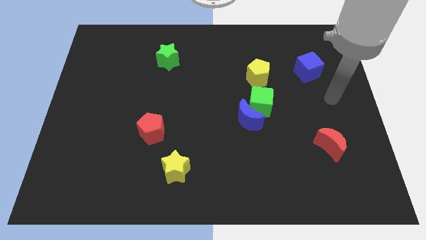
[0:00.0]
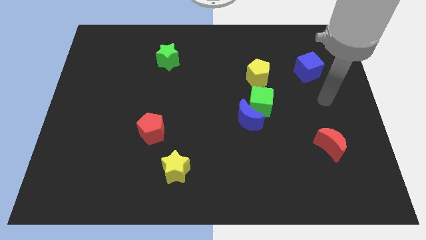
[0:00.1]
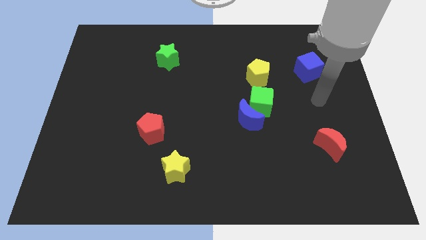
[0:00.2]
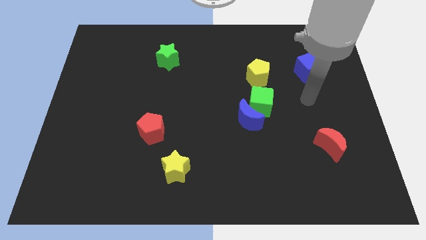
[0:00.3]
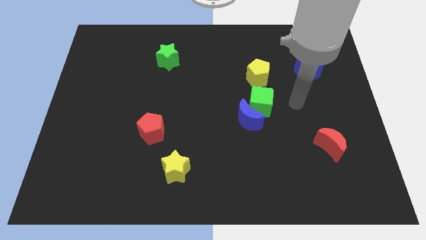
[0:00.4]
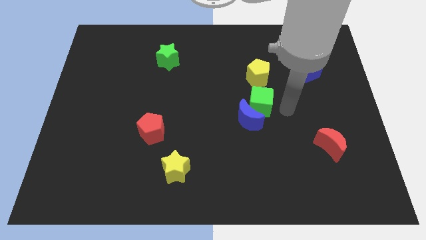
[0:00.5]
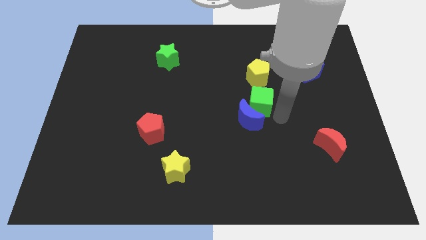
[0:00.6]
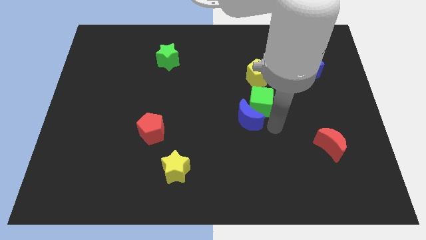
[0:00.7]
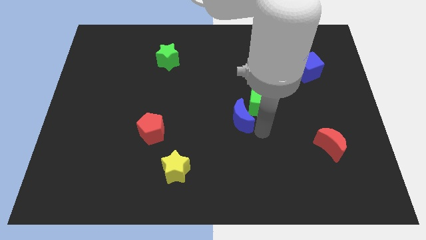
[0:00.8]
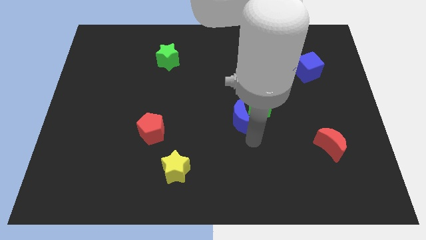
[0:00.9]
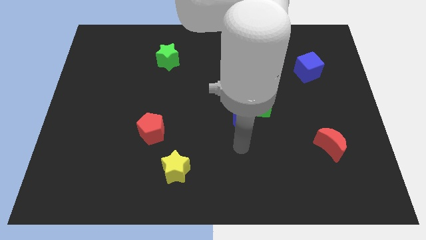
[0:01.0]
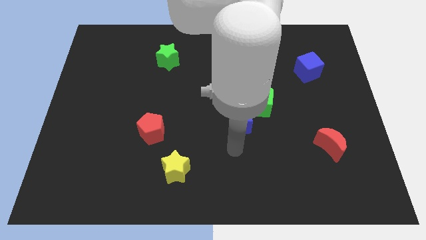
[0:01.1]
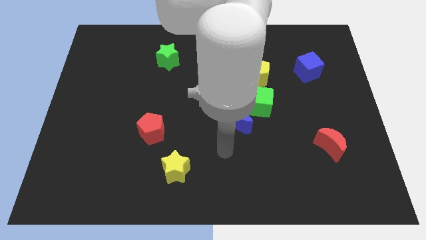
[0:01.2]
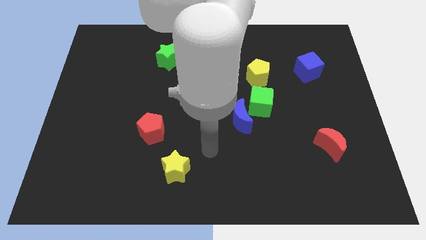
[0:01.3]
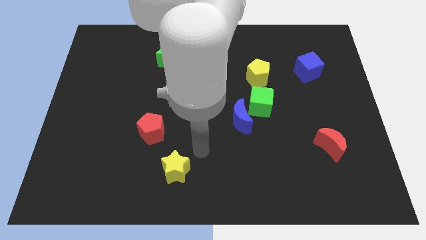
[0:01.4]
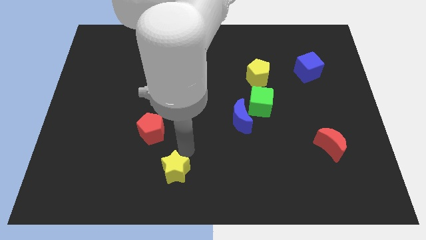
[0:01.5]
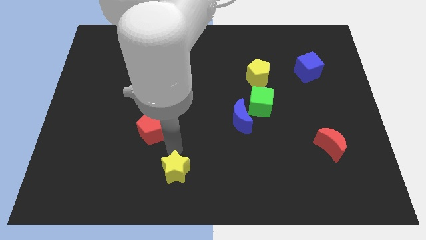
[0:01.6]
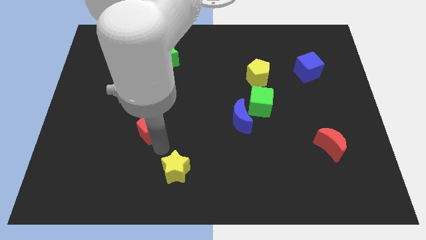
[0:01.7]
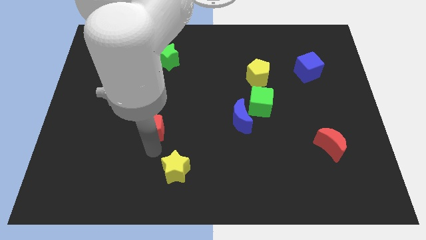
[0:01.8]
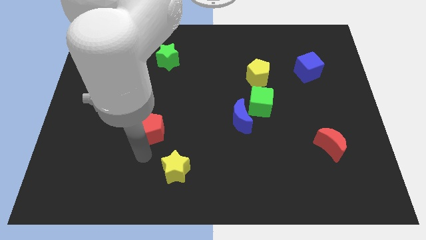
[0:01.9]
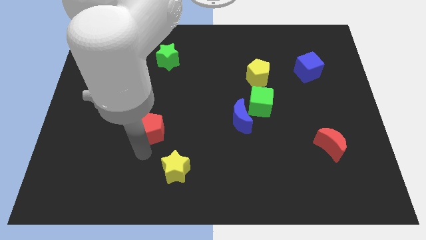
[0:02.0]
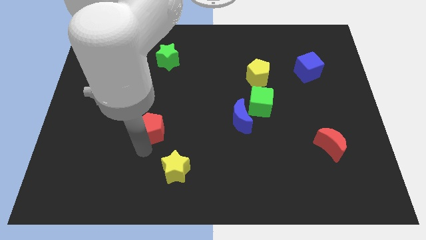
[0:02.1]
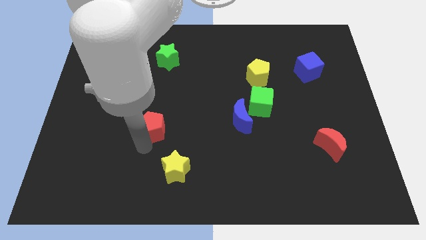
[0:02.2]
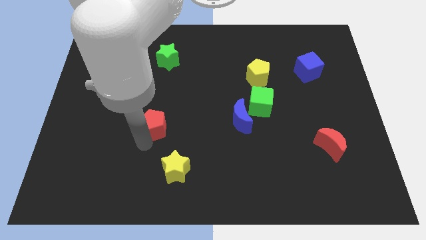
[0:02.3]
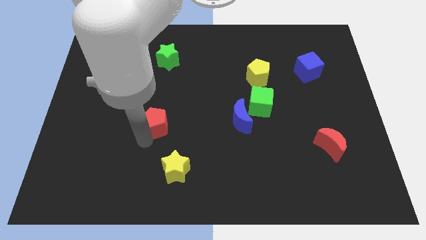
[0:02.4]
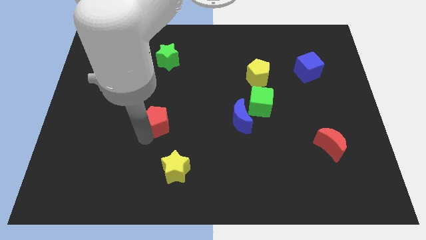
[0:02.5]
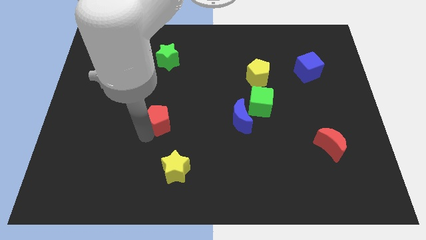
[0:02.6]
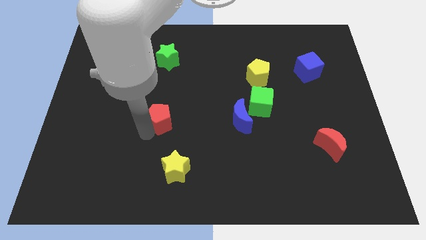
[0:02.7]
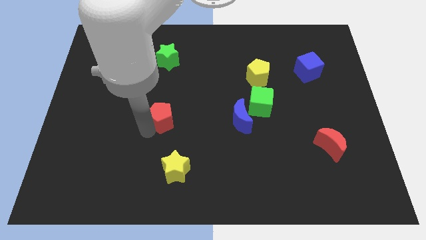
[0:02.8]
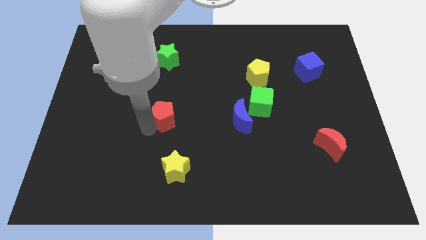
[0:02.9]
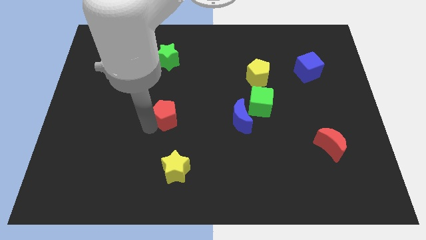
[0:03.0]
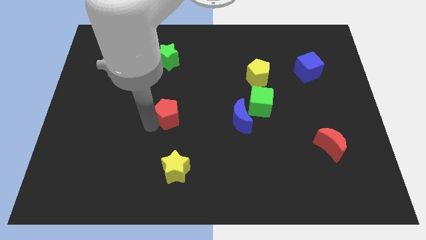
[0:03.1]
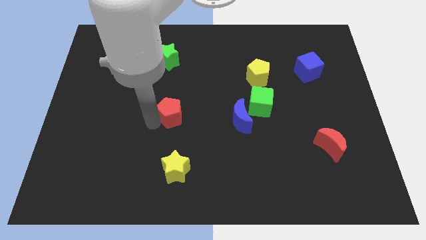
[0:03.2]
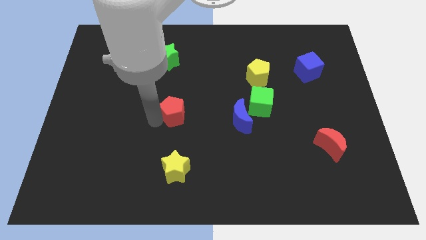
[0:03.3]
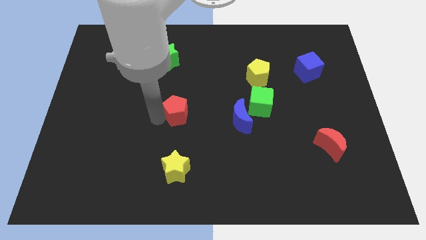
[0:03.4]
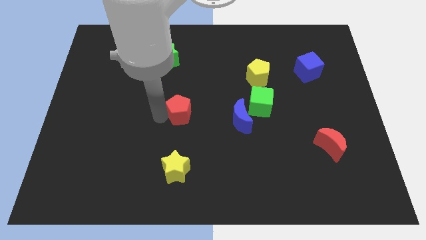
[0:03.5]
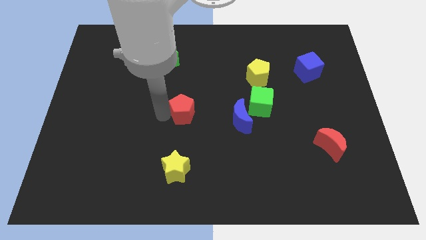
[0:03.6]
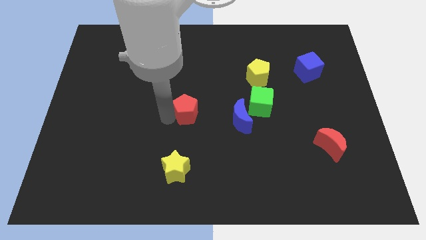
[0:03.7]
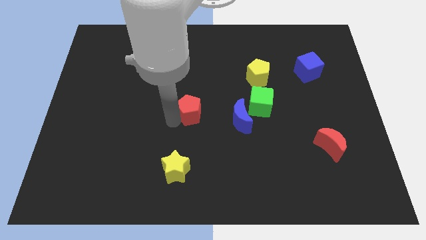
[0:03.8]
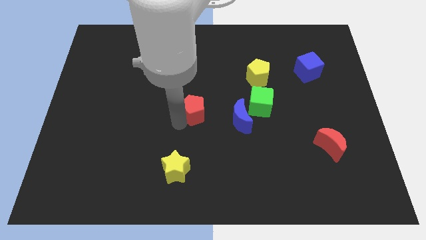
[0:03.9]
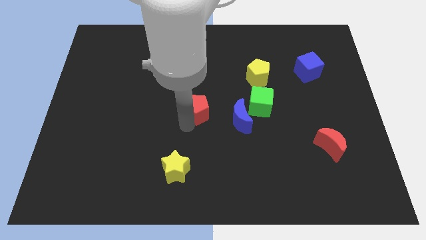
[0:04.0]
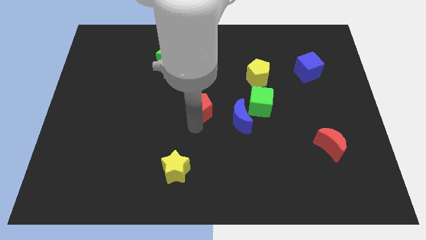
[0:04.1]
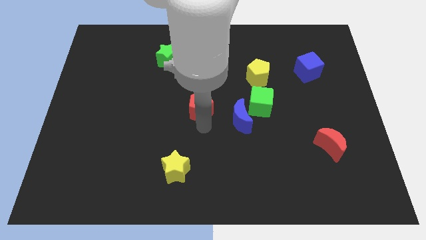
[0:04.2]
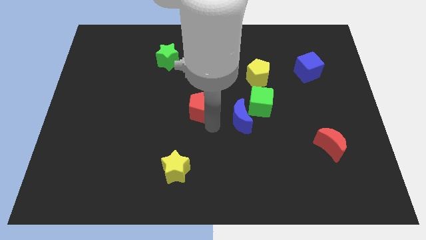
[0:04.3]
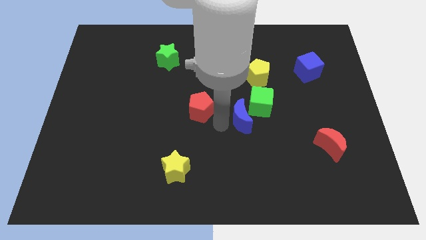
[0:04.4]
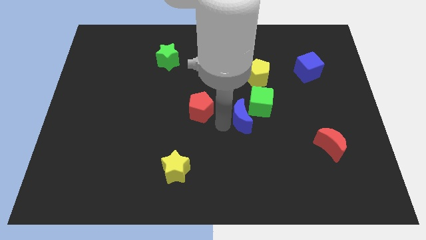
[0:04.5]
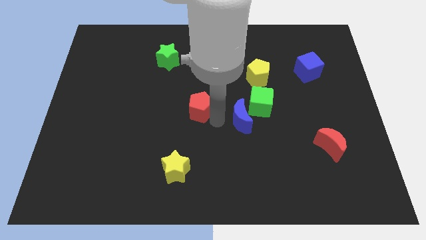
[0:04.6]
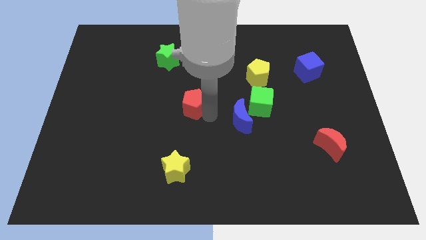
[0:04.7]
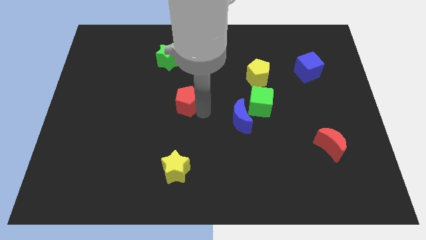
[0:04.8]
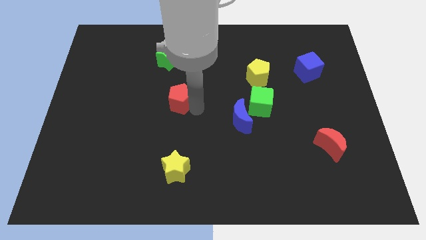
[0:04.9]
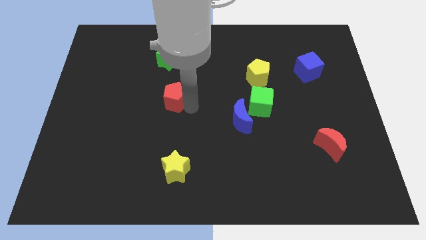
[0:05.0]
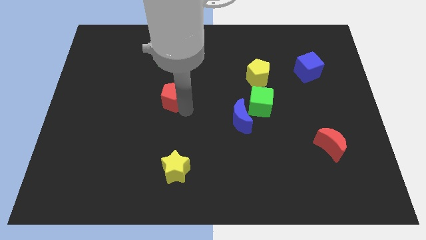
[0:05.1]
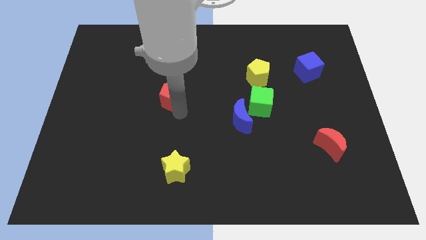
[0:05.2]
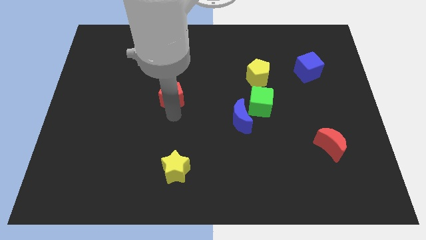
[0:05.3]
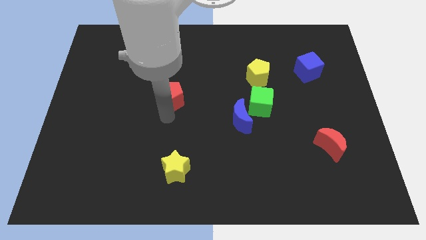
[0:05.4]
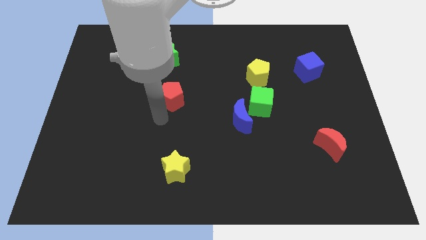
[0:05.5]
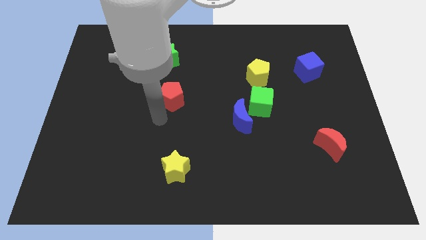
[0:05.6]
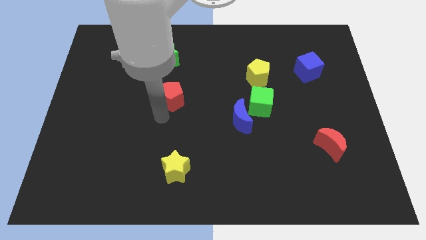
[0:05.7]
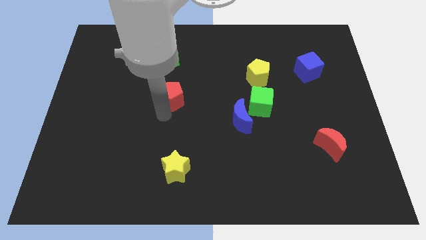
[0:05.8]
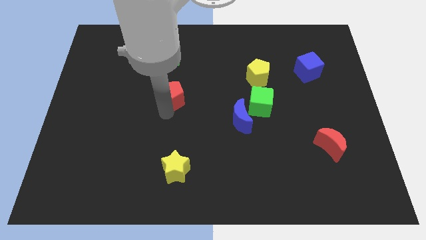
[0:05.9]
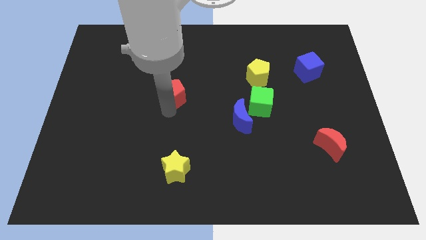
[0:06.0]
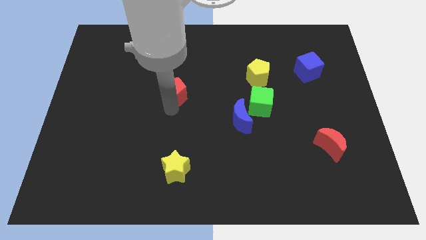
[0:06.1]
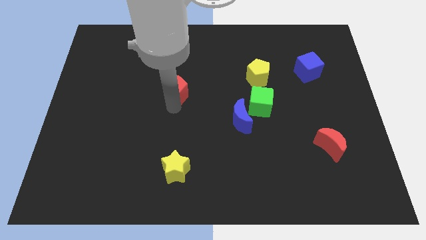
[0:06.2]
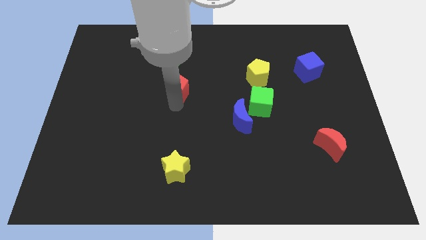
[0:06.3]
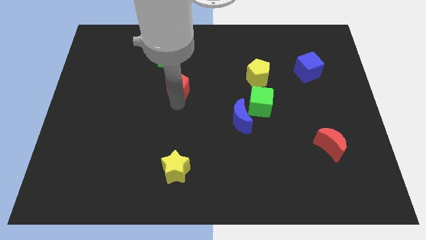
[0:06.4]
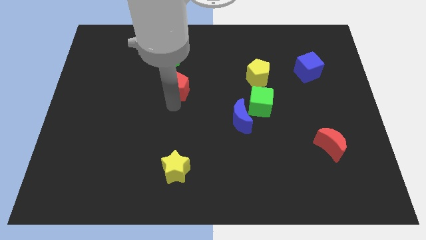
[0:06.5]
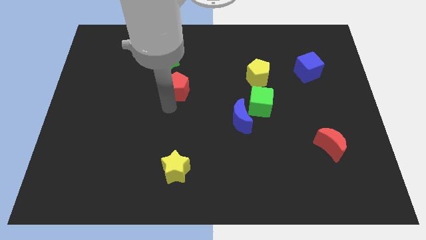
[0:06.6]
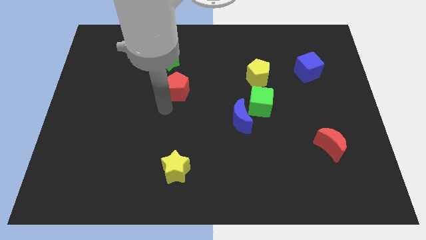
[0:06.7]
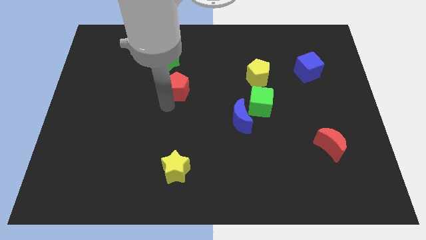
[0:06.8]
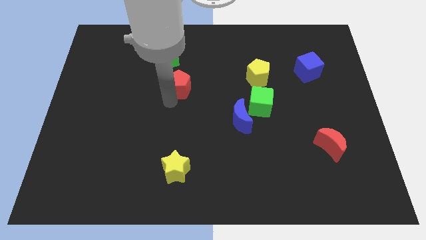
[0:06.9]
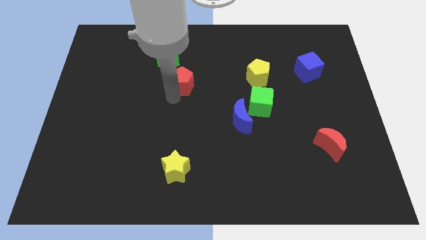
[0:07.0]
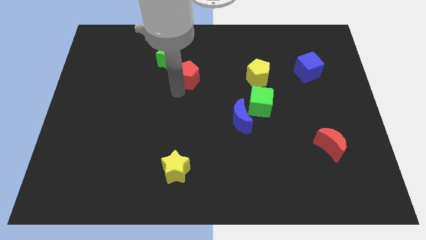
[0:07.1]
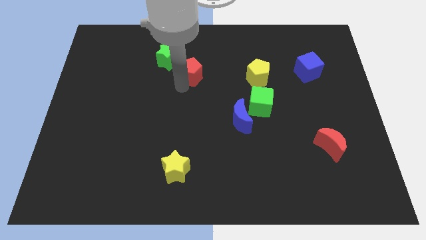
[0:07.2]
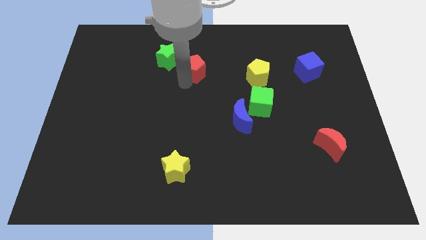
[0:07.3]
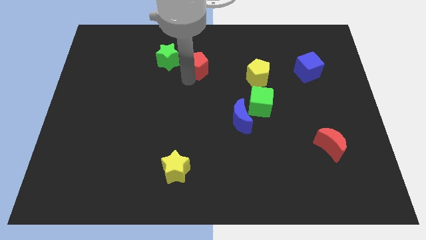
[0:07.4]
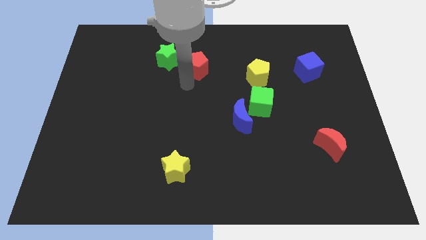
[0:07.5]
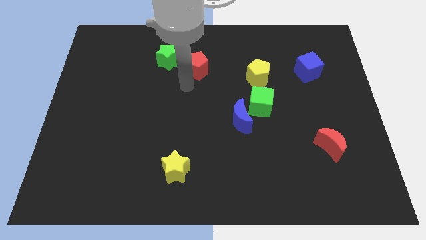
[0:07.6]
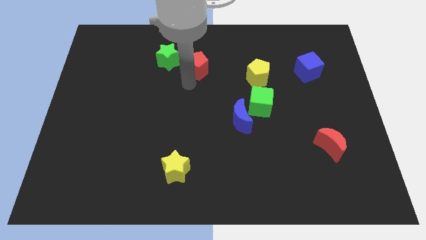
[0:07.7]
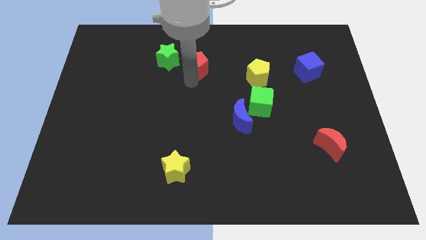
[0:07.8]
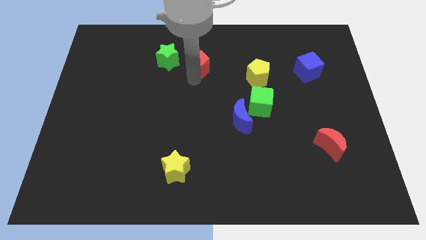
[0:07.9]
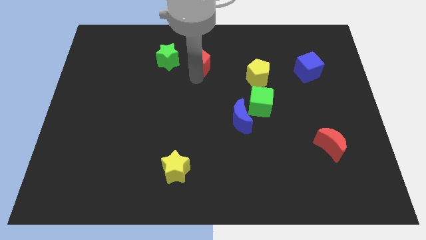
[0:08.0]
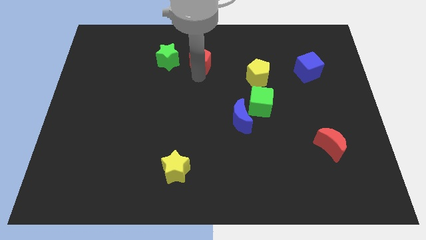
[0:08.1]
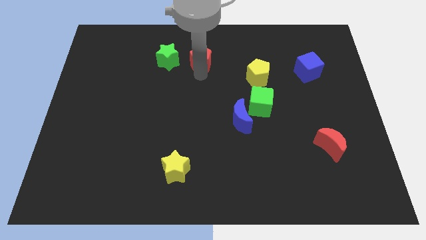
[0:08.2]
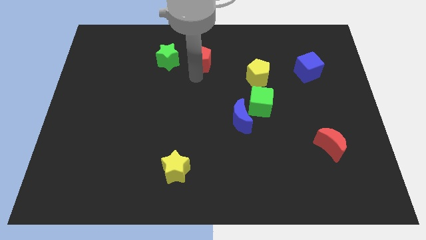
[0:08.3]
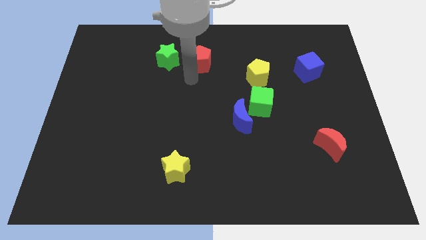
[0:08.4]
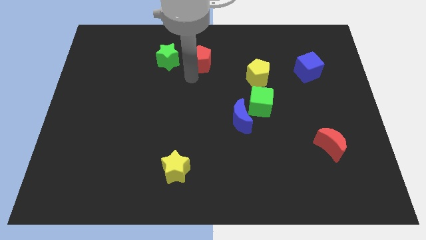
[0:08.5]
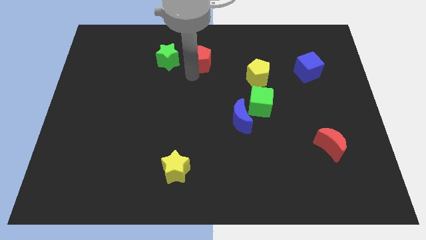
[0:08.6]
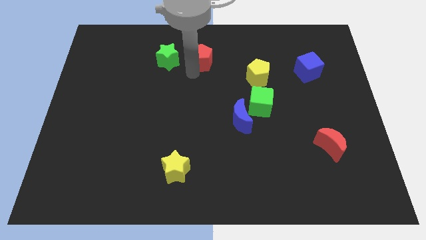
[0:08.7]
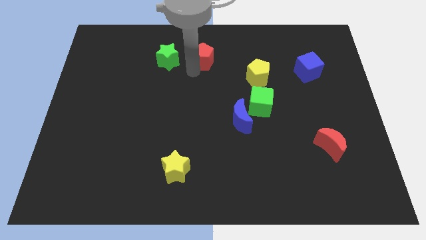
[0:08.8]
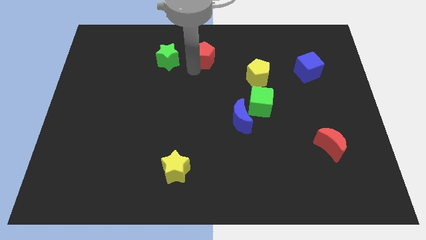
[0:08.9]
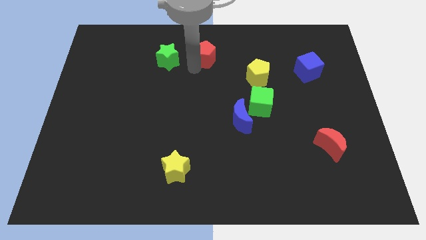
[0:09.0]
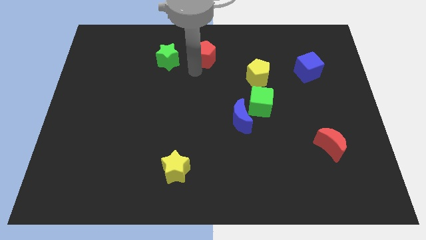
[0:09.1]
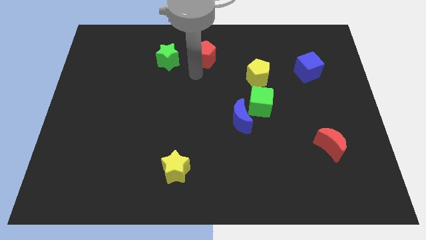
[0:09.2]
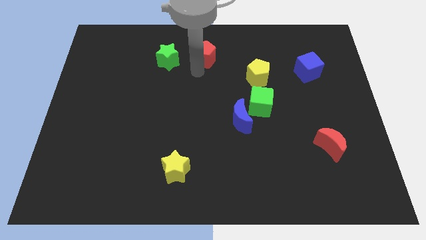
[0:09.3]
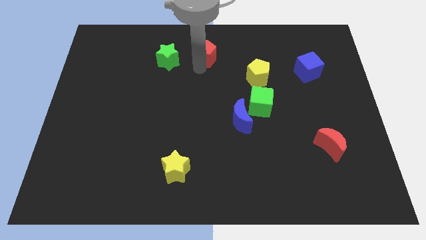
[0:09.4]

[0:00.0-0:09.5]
slide the red pentagon to the towards your base
